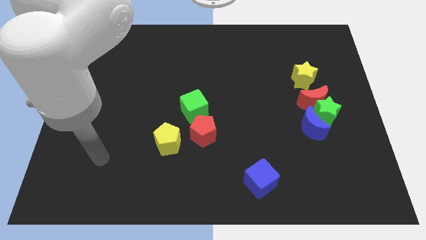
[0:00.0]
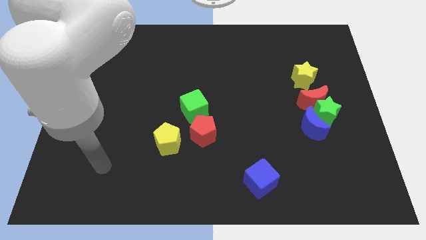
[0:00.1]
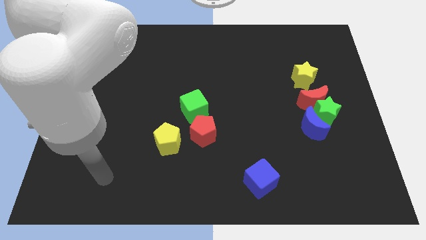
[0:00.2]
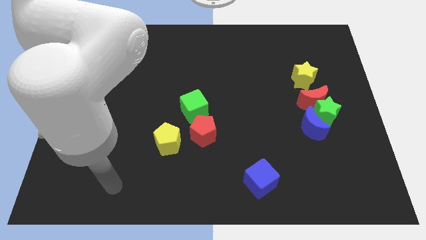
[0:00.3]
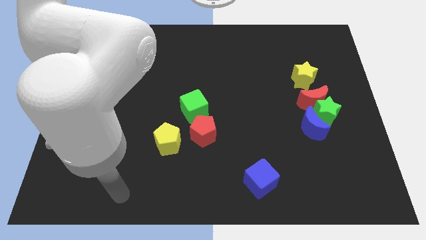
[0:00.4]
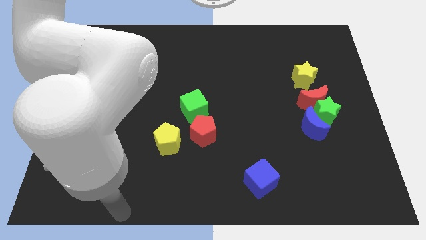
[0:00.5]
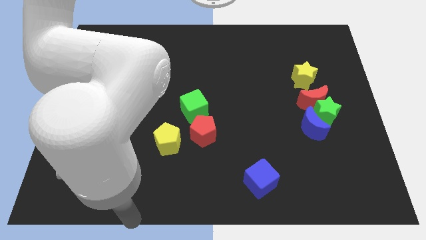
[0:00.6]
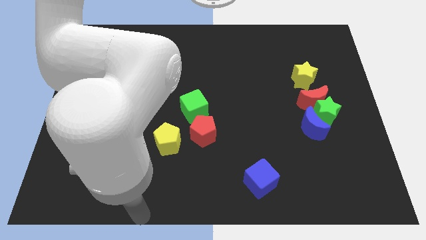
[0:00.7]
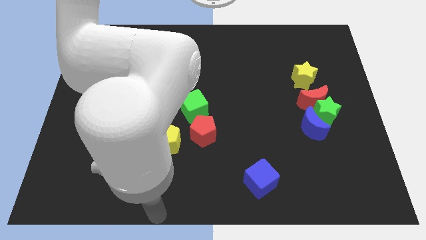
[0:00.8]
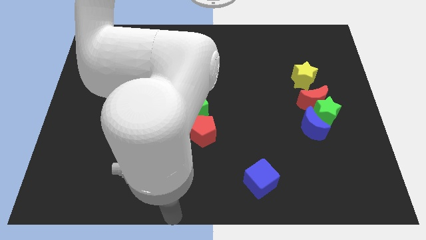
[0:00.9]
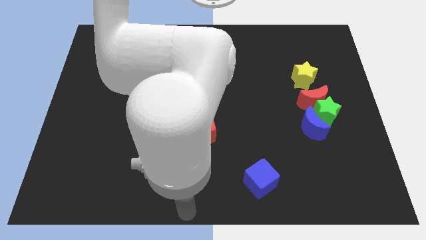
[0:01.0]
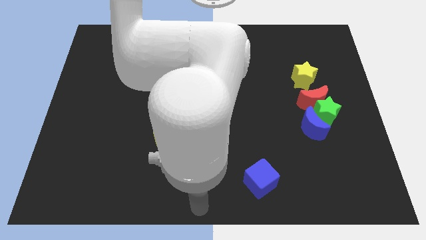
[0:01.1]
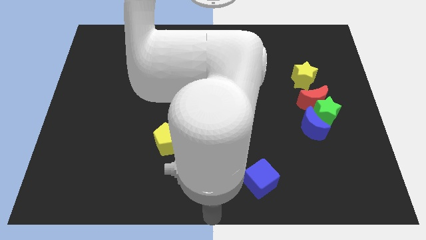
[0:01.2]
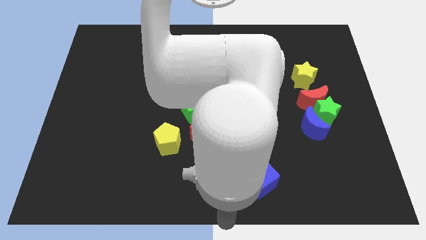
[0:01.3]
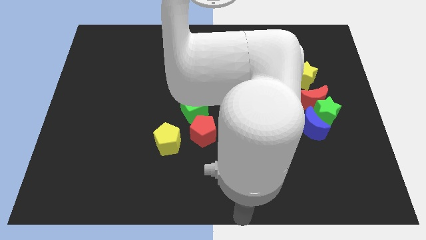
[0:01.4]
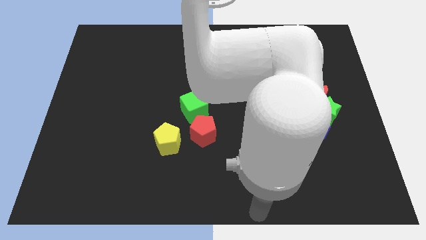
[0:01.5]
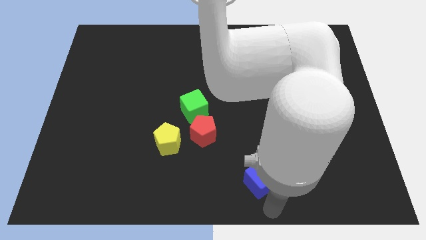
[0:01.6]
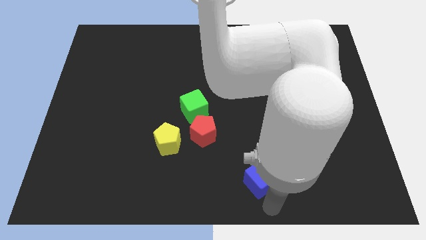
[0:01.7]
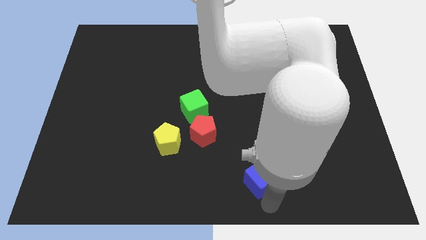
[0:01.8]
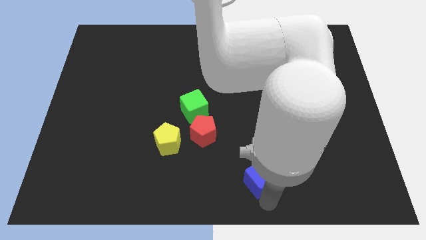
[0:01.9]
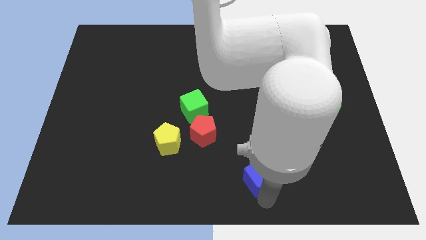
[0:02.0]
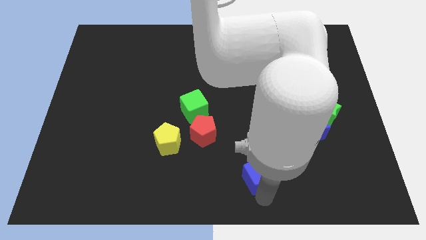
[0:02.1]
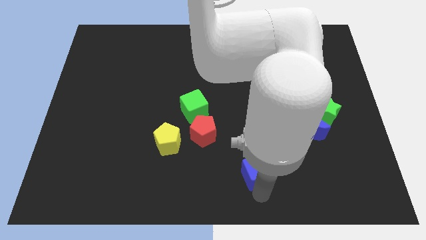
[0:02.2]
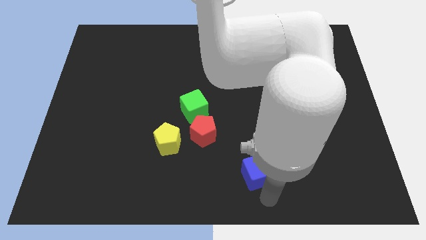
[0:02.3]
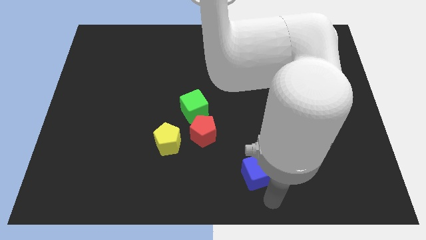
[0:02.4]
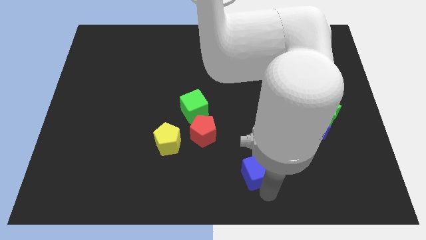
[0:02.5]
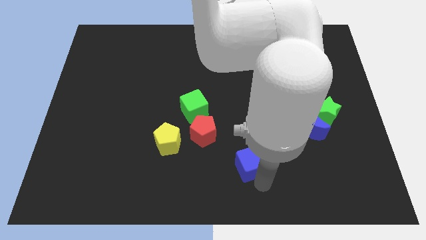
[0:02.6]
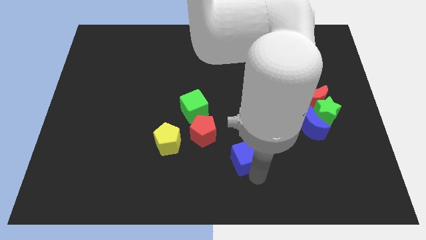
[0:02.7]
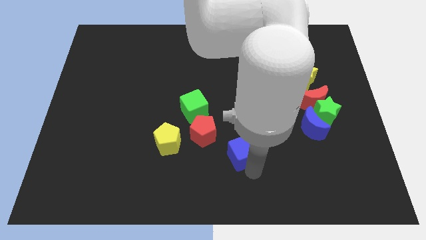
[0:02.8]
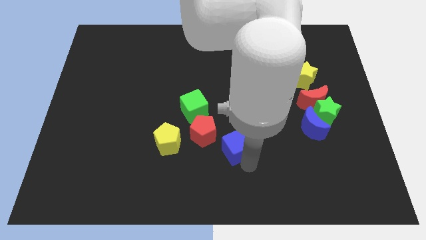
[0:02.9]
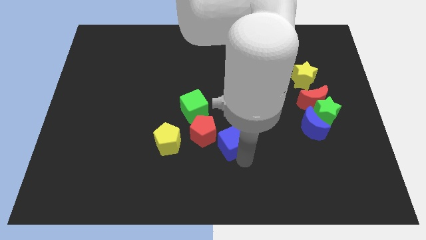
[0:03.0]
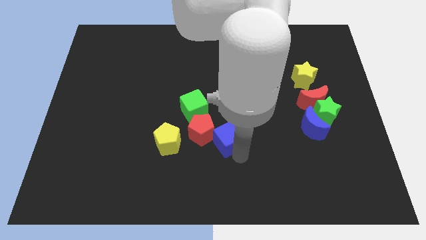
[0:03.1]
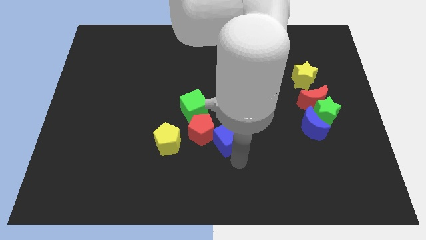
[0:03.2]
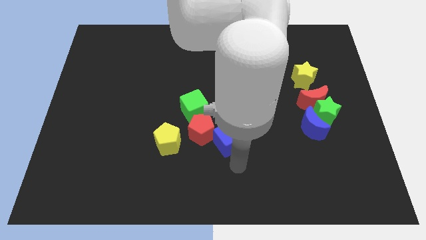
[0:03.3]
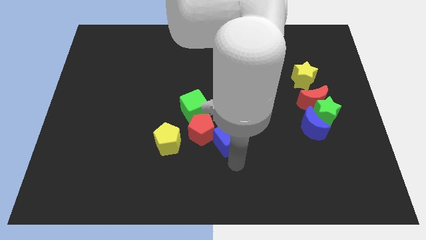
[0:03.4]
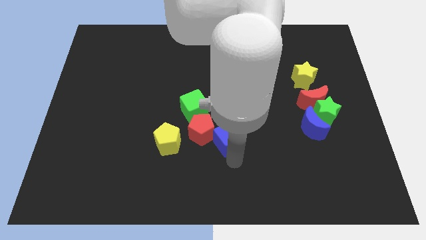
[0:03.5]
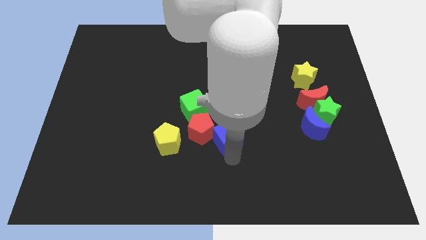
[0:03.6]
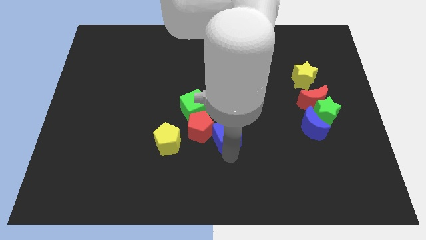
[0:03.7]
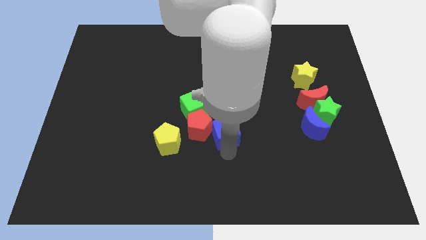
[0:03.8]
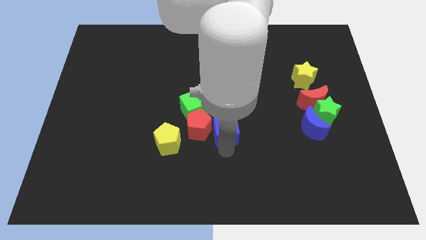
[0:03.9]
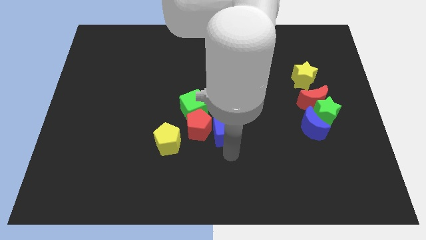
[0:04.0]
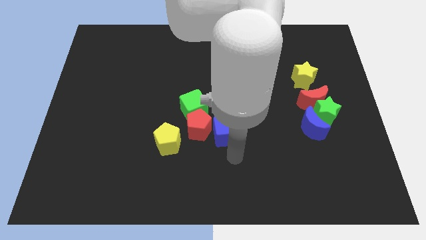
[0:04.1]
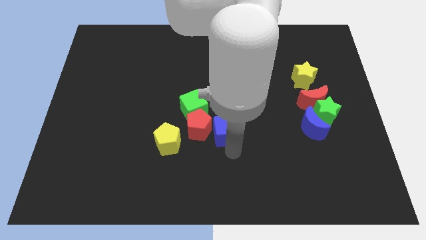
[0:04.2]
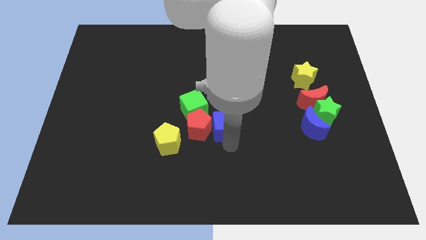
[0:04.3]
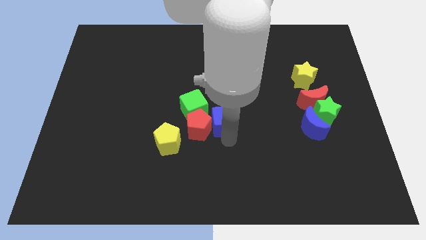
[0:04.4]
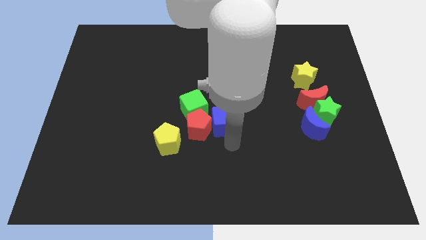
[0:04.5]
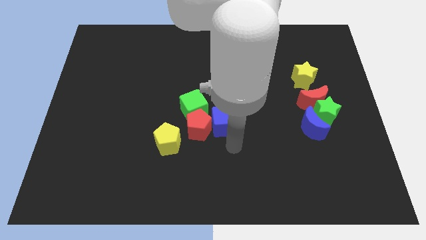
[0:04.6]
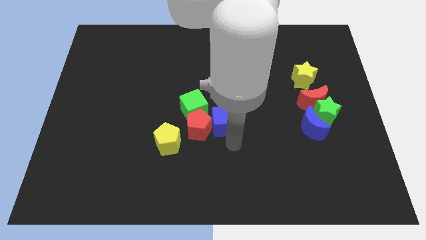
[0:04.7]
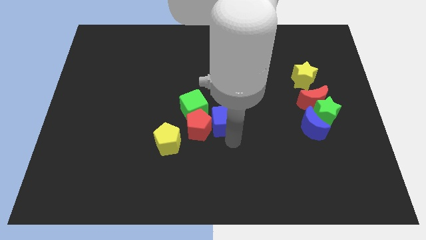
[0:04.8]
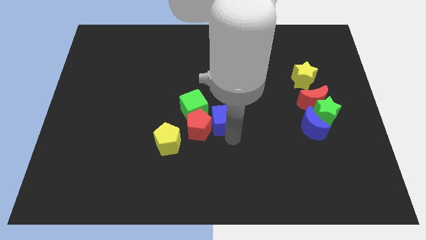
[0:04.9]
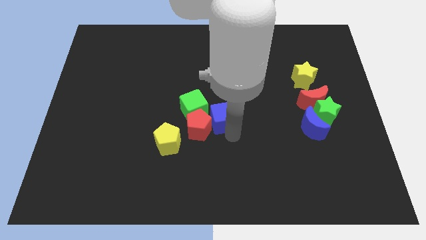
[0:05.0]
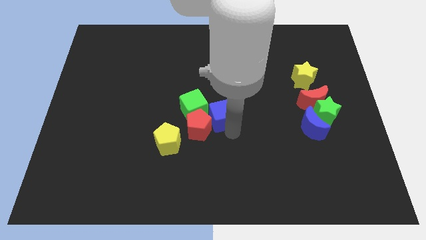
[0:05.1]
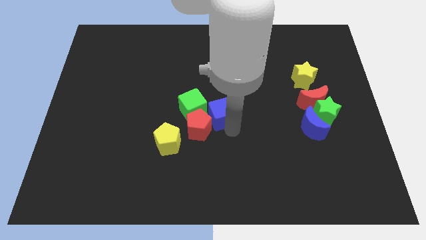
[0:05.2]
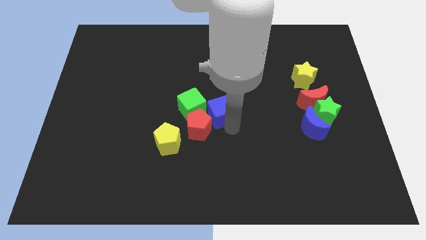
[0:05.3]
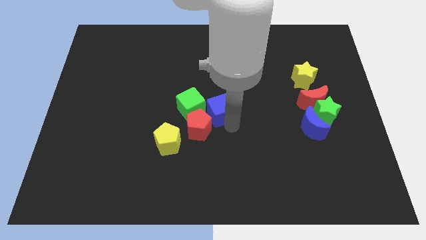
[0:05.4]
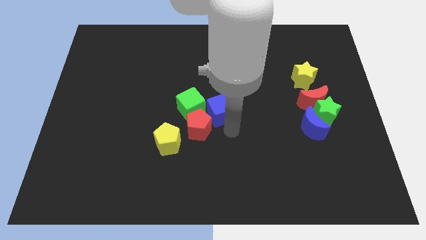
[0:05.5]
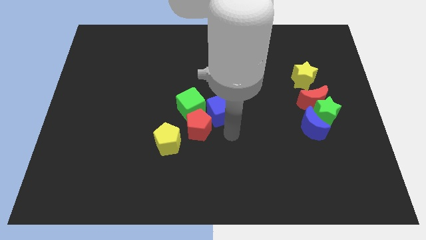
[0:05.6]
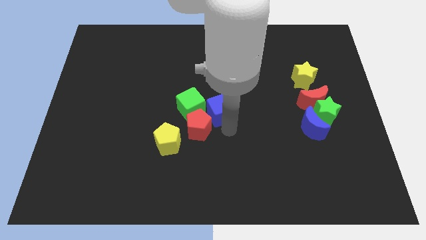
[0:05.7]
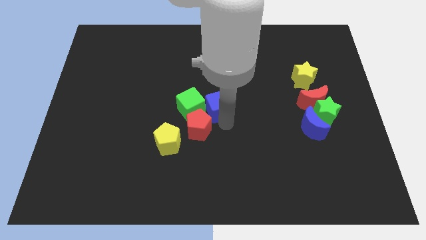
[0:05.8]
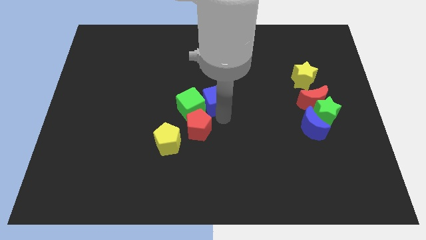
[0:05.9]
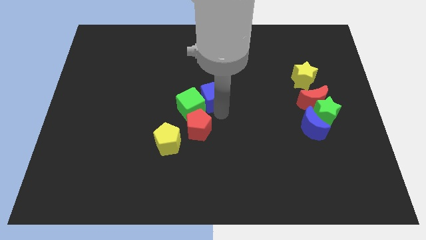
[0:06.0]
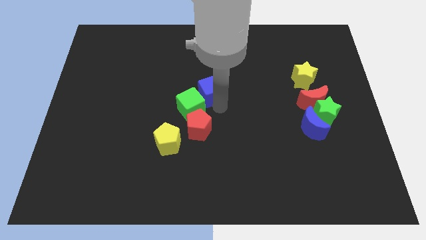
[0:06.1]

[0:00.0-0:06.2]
push the blue cube up and to the left

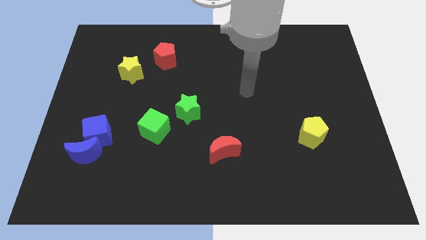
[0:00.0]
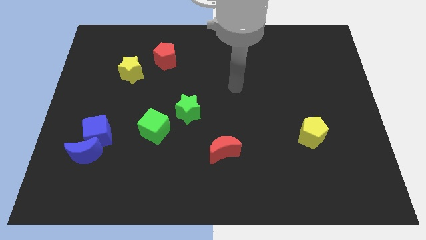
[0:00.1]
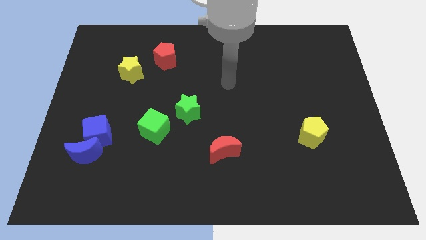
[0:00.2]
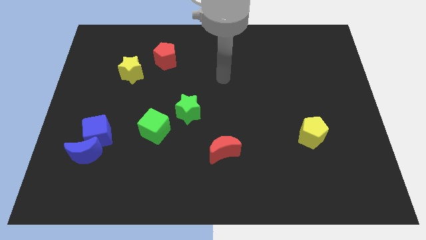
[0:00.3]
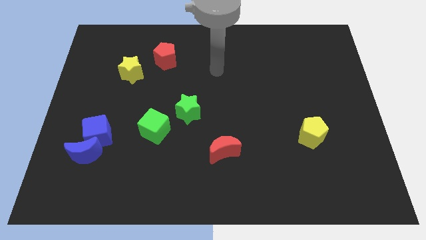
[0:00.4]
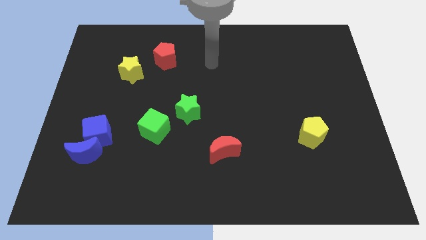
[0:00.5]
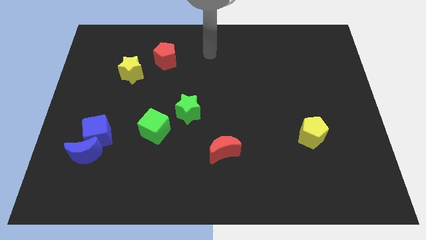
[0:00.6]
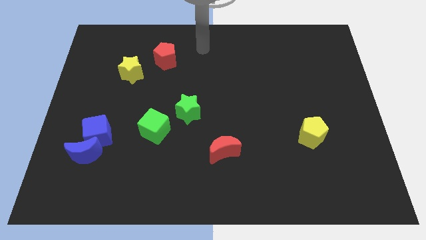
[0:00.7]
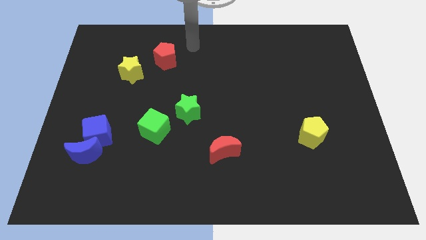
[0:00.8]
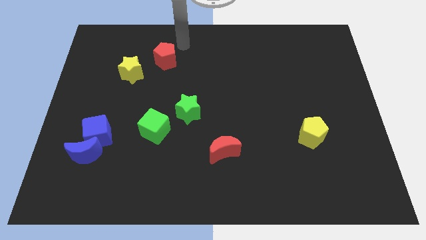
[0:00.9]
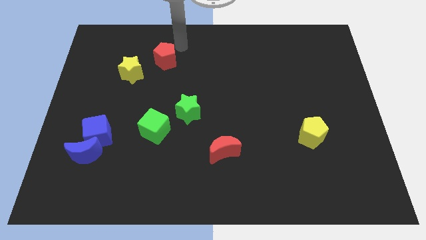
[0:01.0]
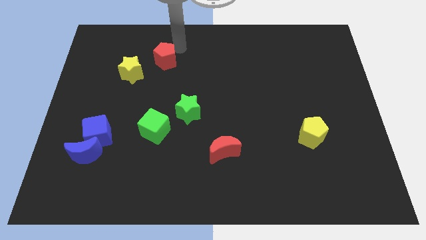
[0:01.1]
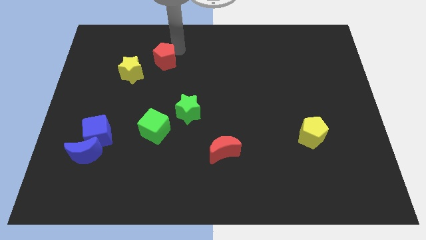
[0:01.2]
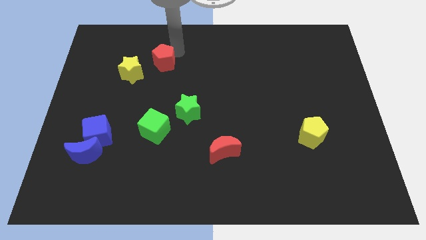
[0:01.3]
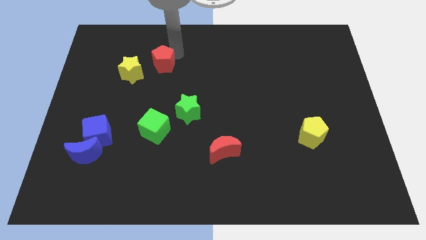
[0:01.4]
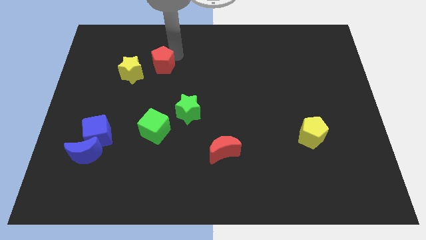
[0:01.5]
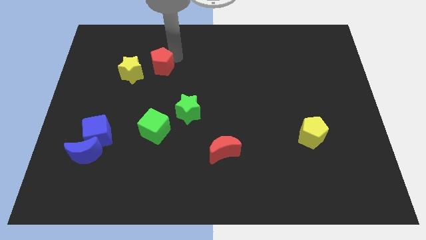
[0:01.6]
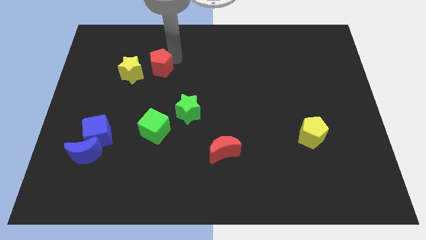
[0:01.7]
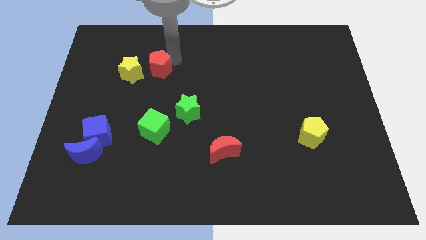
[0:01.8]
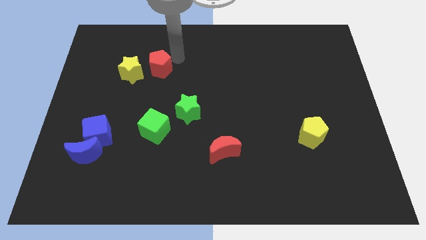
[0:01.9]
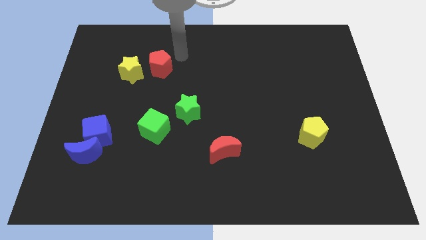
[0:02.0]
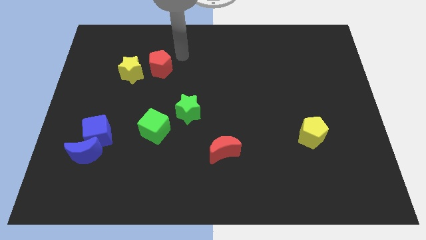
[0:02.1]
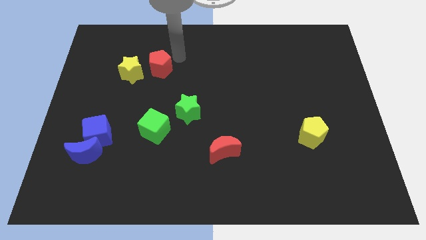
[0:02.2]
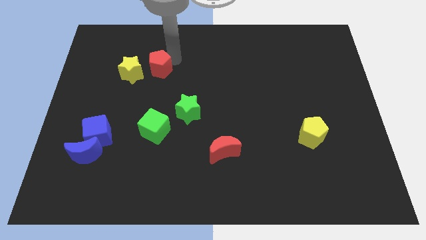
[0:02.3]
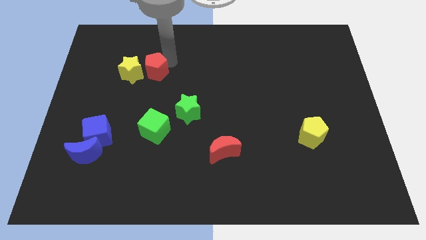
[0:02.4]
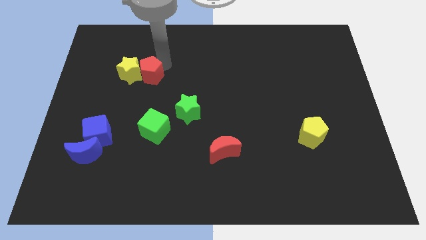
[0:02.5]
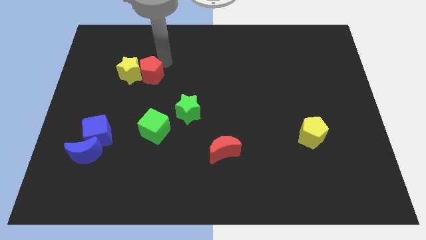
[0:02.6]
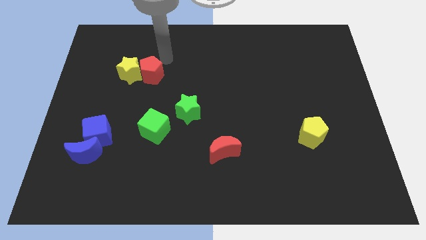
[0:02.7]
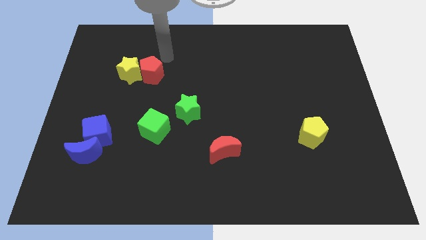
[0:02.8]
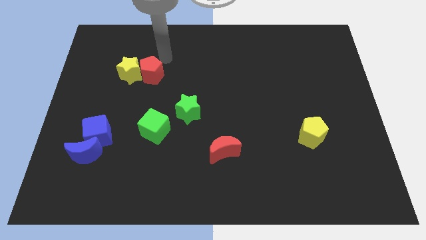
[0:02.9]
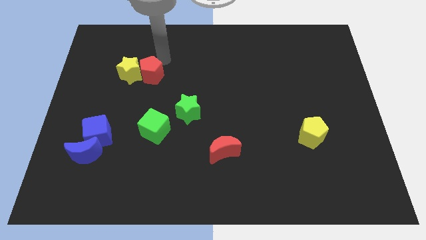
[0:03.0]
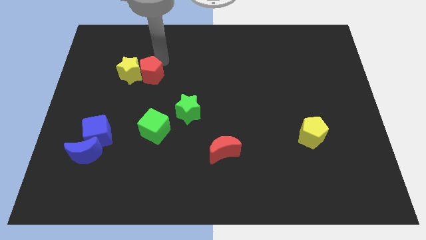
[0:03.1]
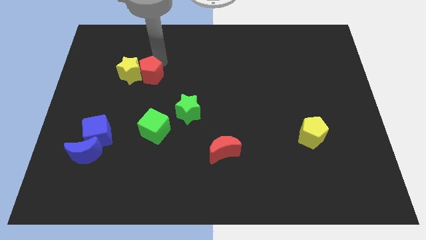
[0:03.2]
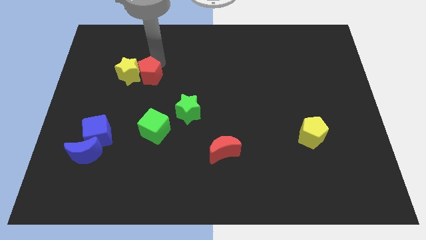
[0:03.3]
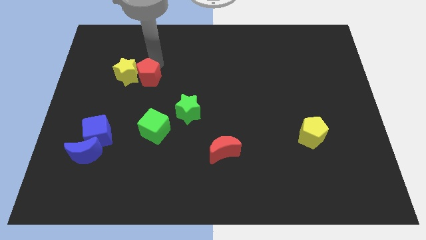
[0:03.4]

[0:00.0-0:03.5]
push the red pentagon slightly down and then left
